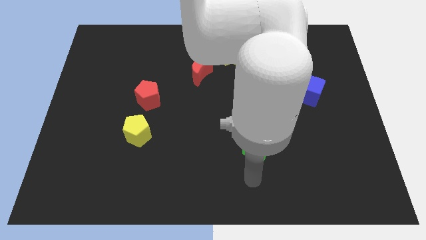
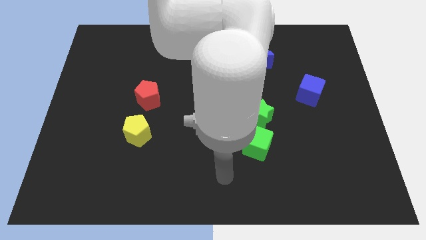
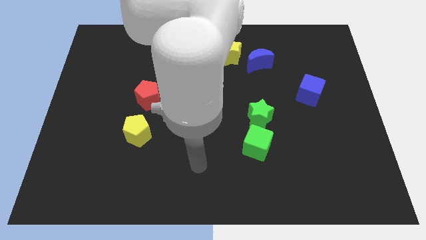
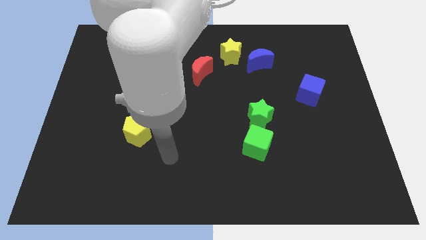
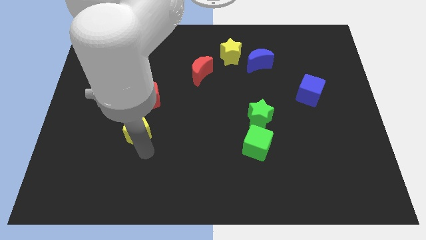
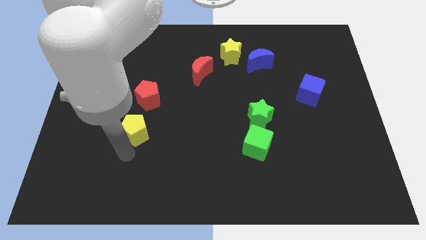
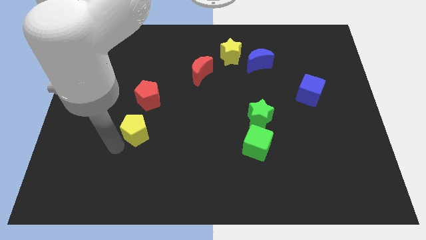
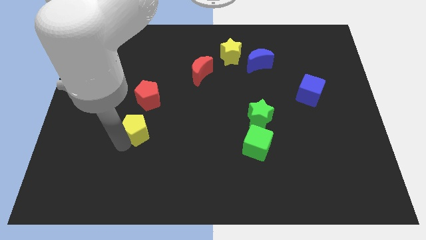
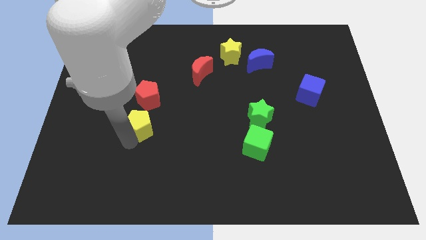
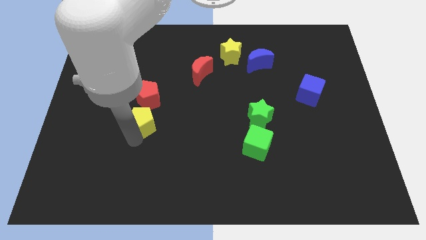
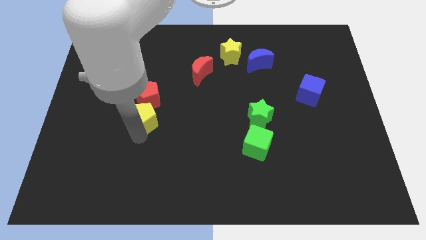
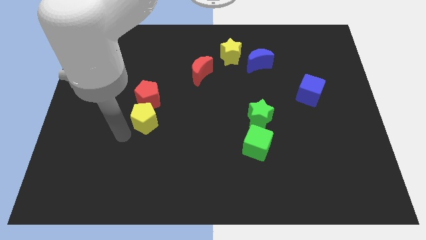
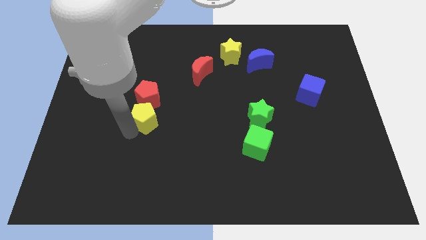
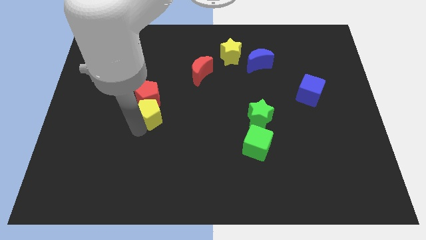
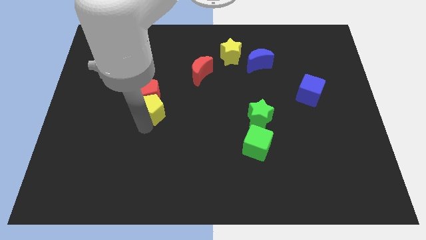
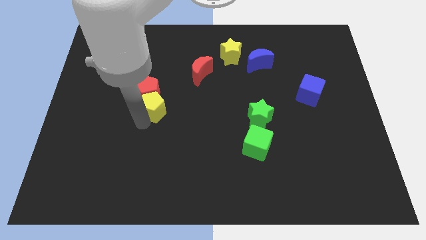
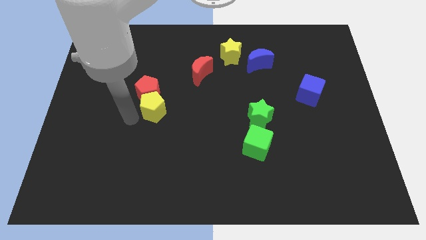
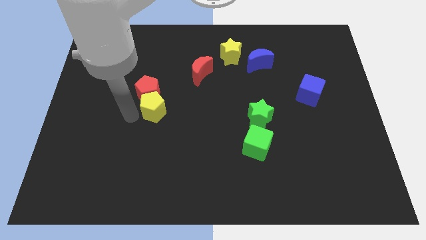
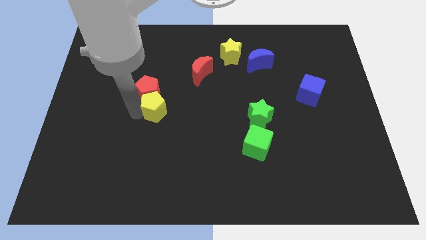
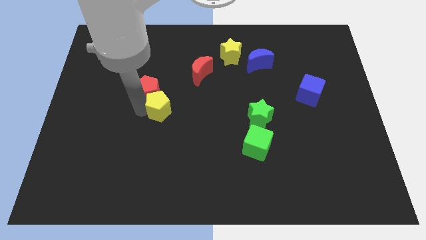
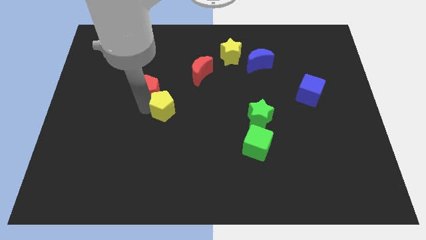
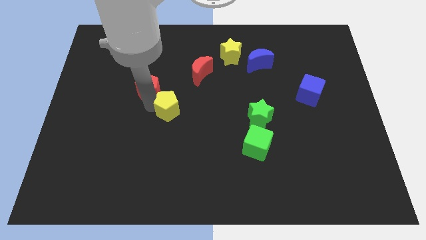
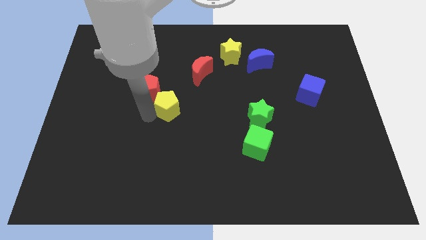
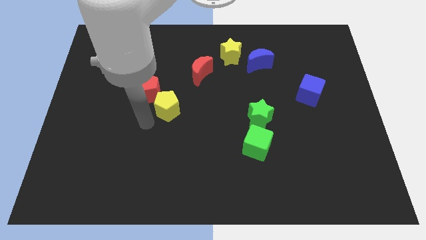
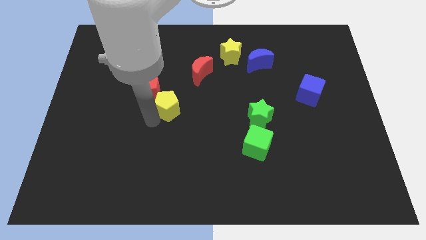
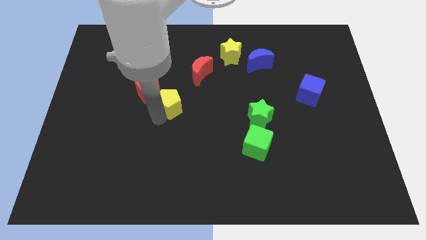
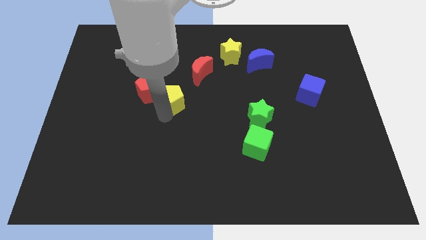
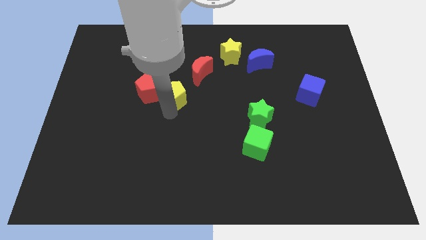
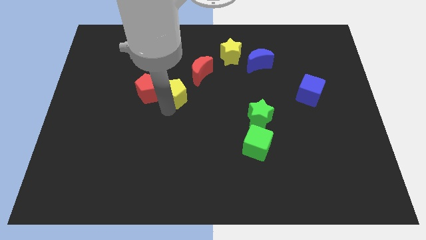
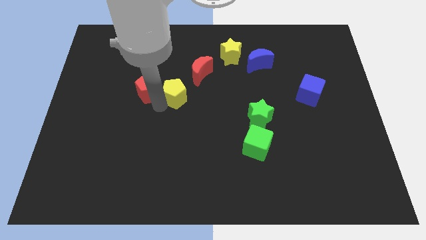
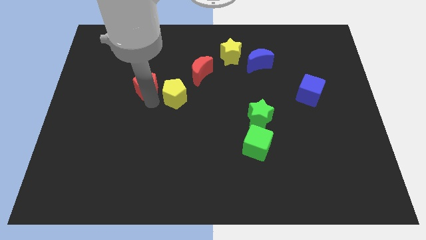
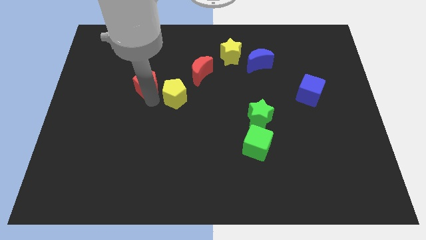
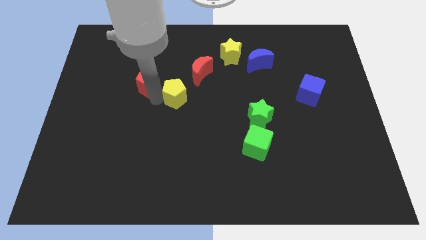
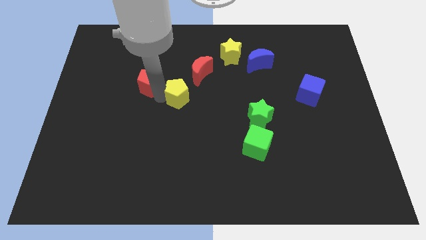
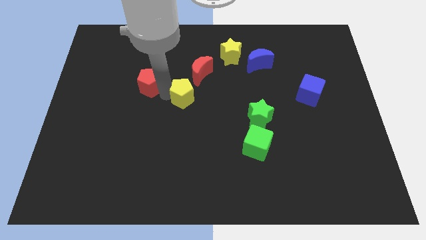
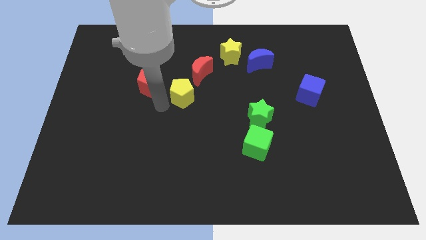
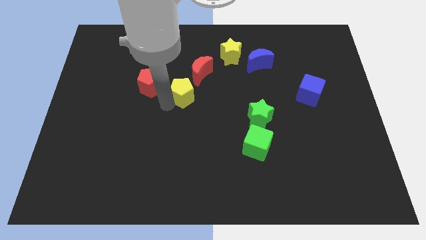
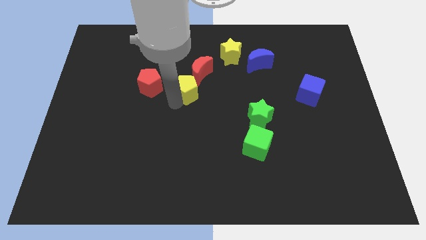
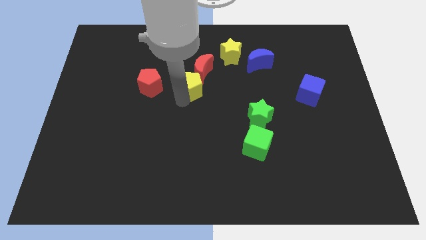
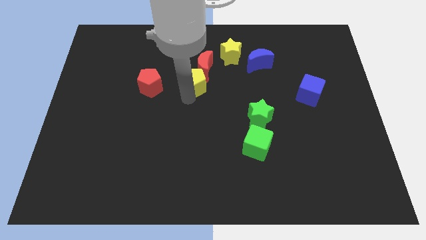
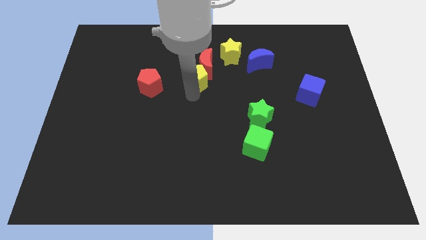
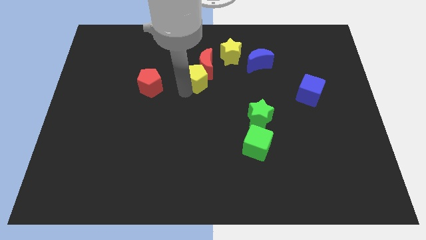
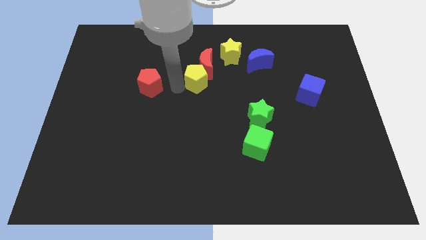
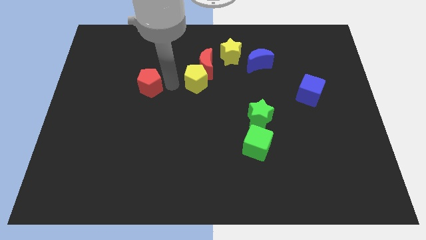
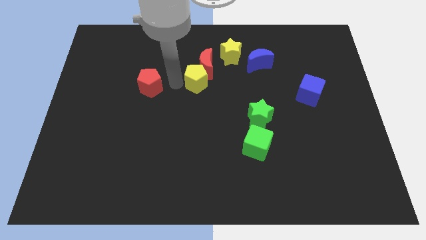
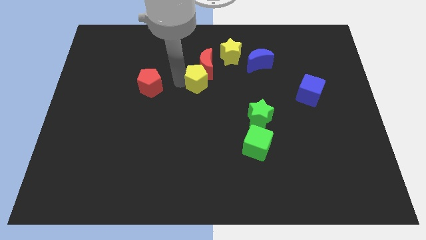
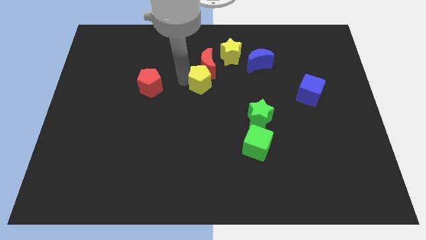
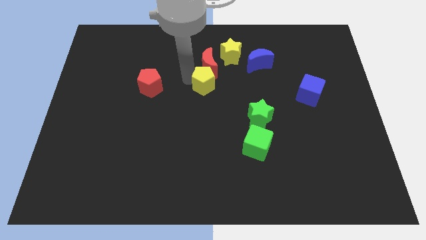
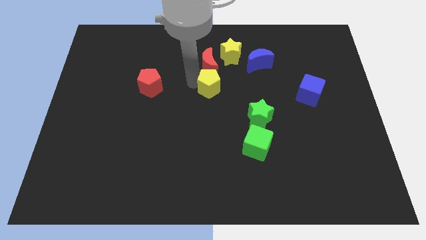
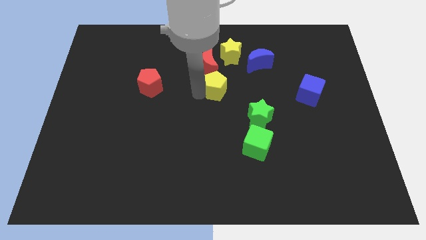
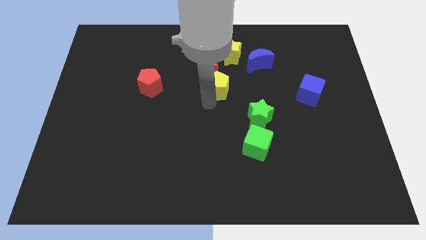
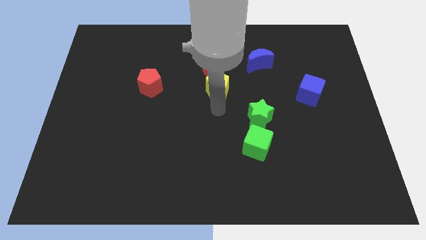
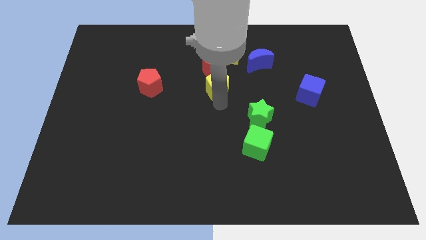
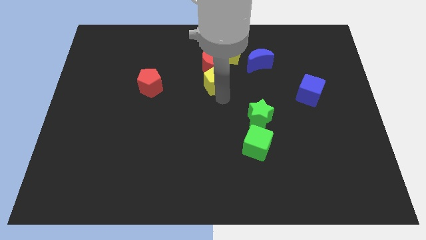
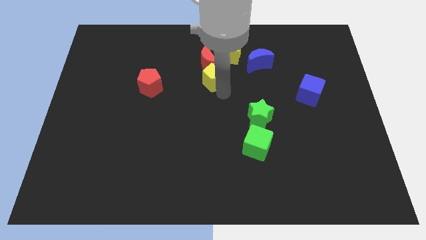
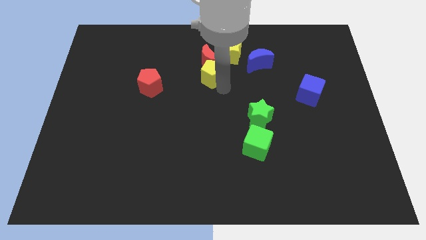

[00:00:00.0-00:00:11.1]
slide the yellow pentagon just left of the blue moon

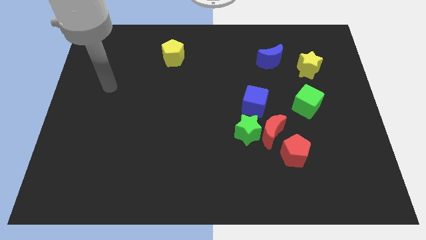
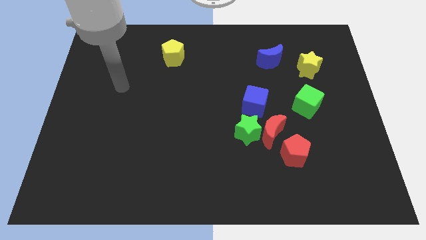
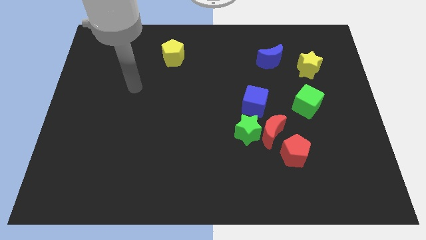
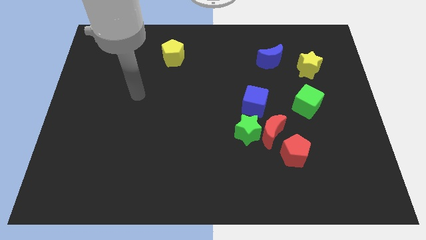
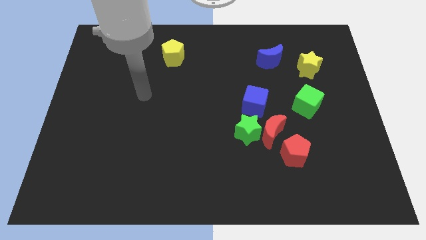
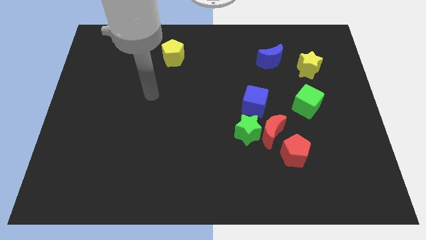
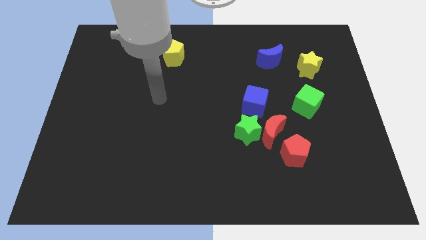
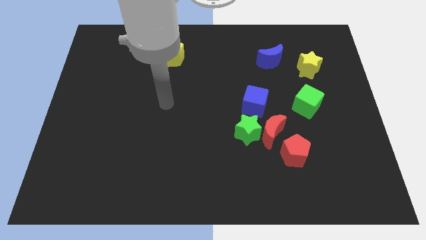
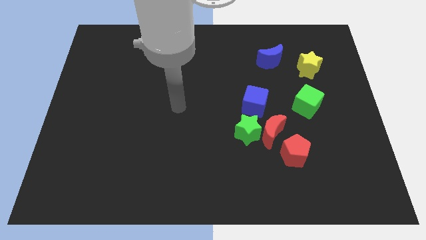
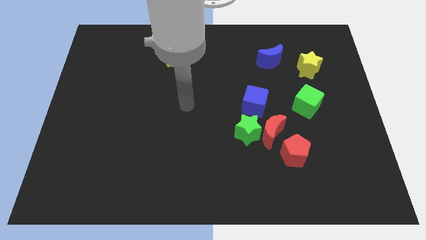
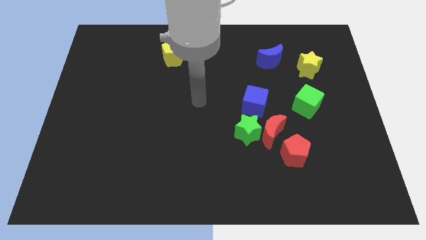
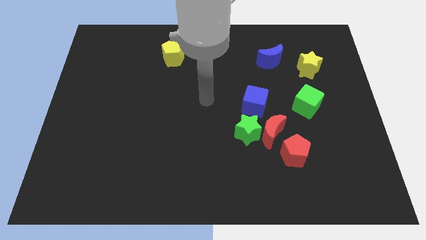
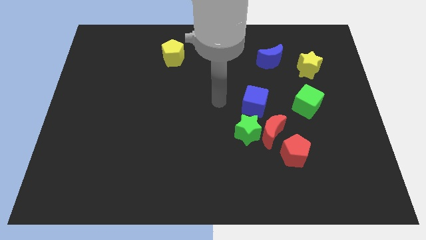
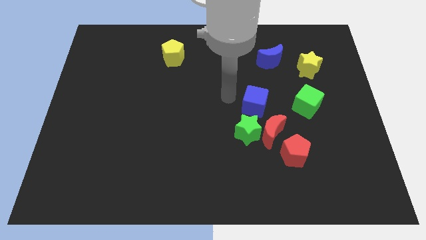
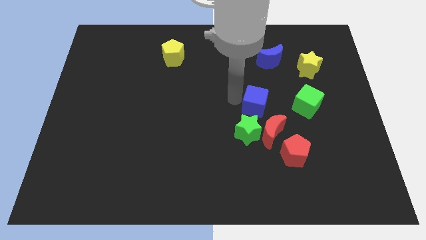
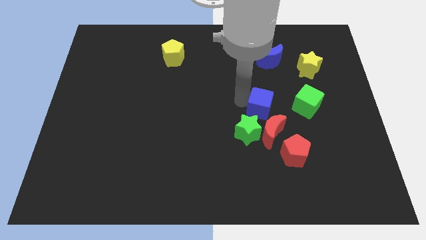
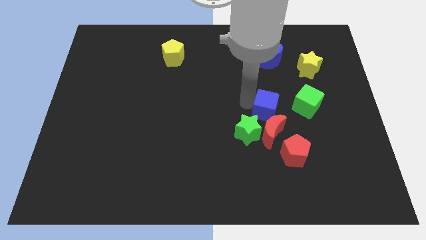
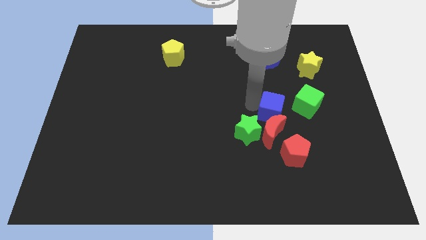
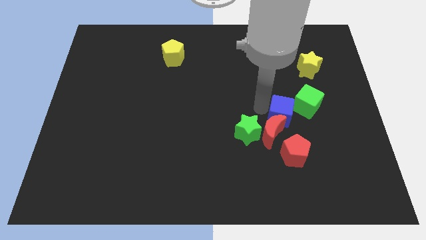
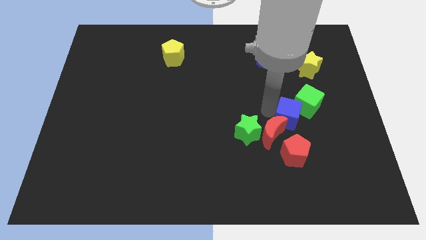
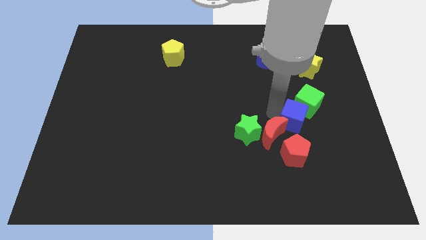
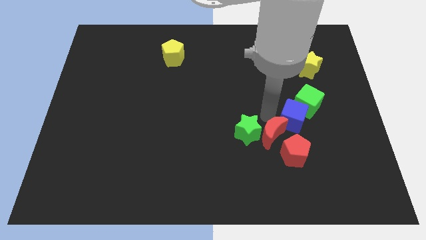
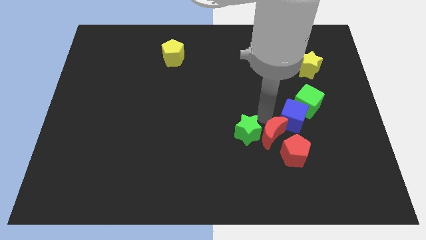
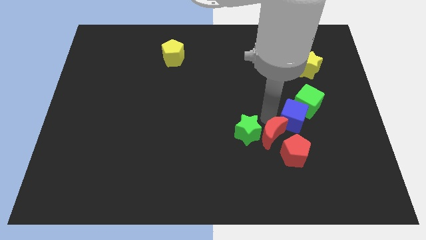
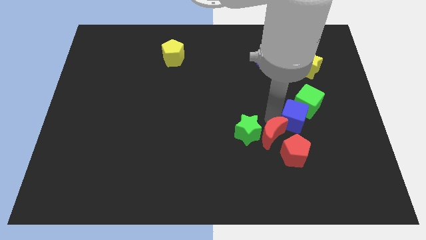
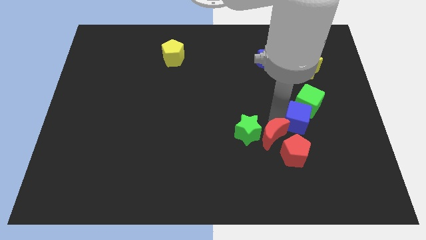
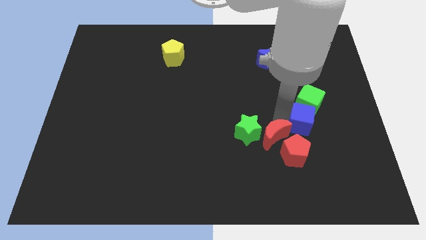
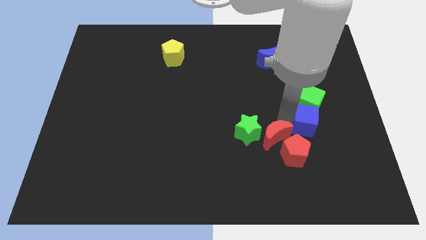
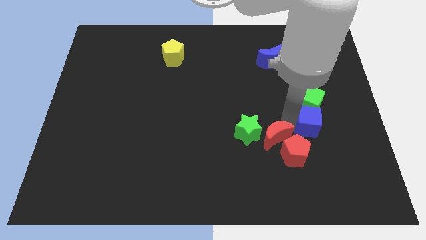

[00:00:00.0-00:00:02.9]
move the blue cube to the bottom right side of the green cube
